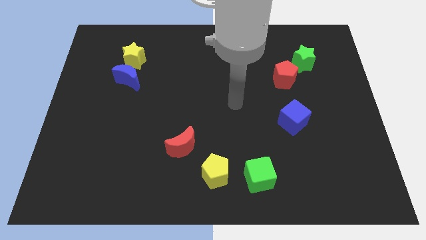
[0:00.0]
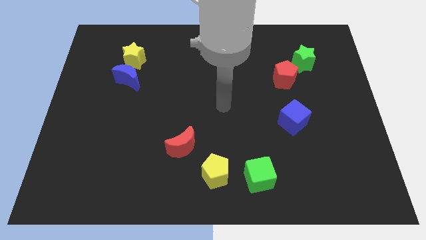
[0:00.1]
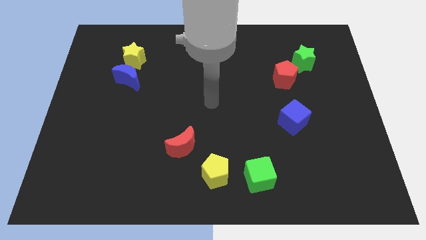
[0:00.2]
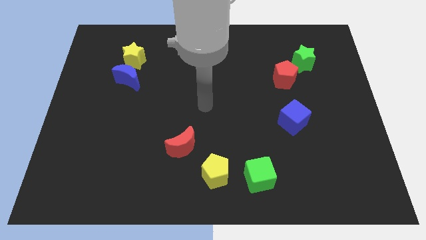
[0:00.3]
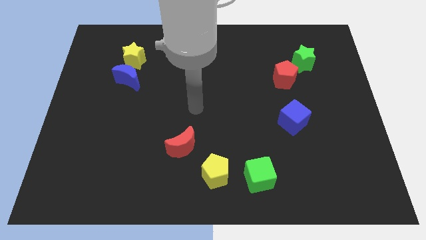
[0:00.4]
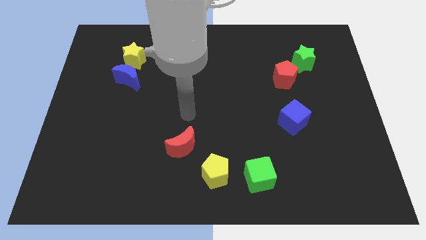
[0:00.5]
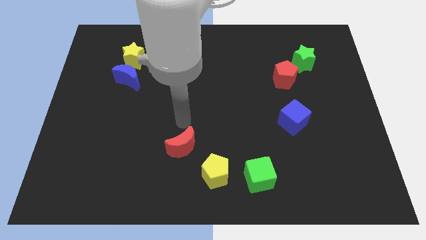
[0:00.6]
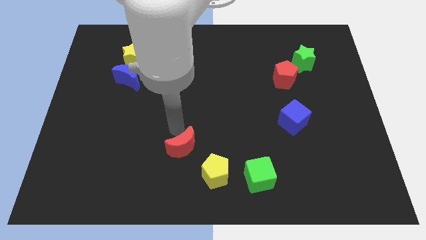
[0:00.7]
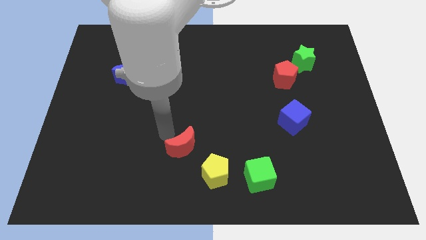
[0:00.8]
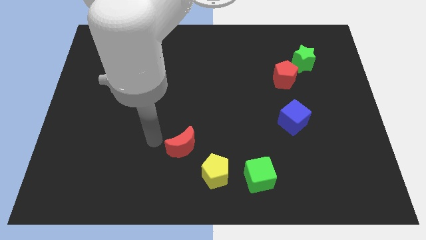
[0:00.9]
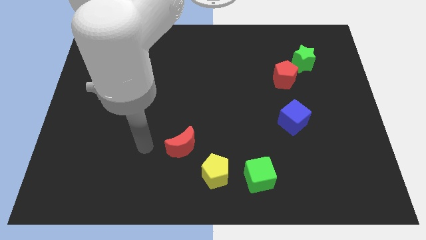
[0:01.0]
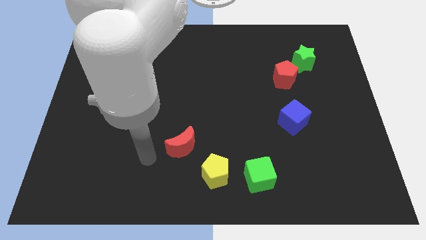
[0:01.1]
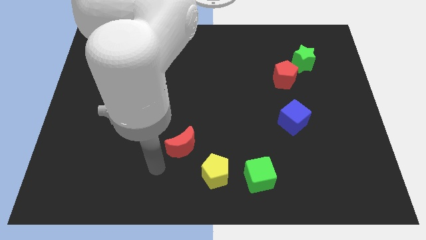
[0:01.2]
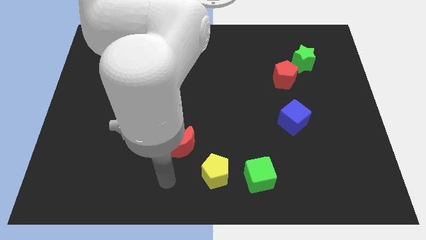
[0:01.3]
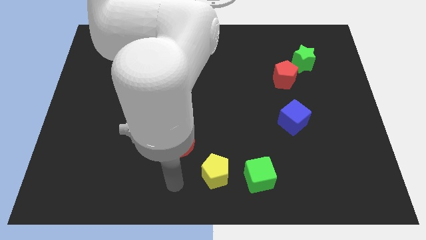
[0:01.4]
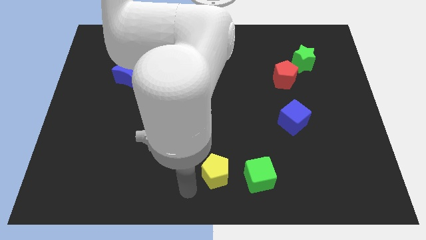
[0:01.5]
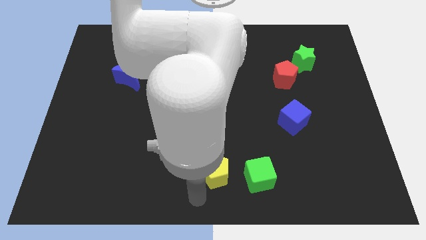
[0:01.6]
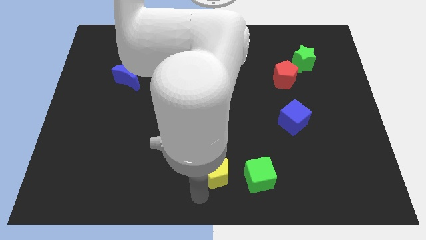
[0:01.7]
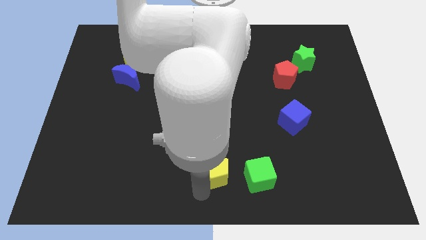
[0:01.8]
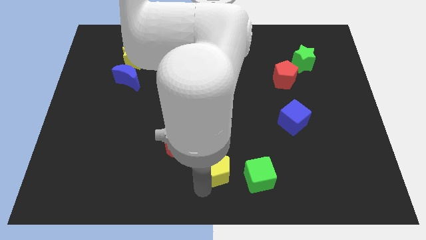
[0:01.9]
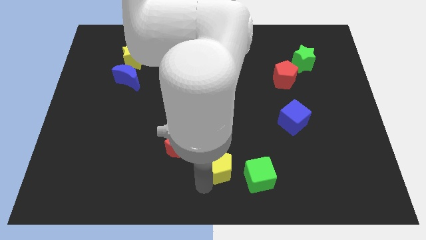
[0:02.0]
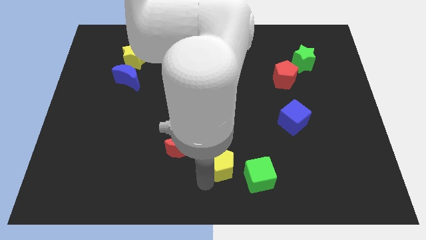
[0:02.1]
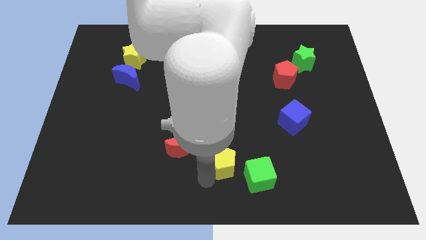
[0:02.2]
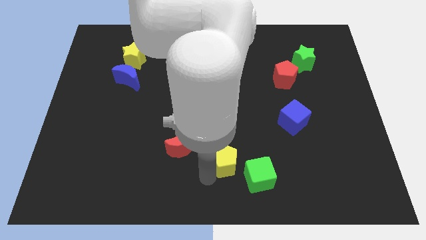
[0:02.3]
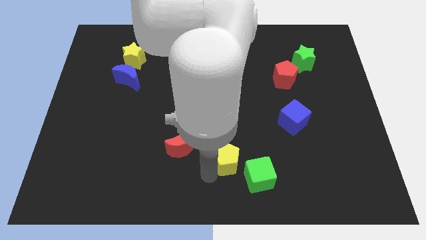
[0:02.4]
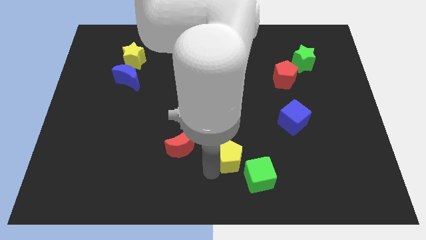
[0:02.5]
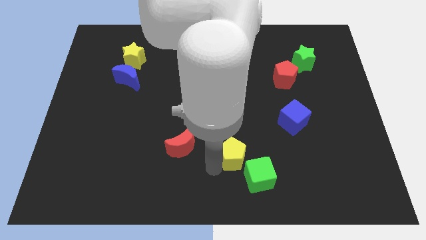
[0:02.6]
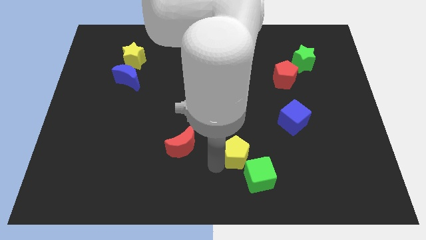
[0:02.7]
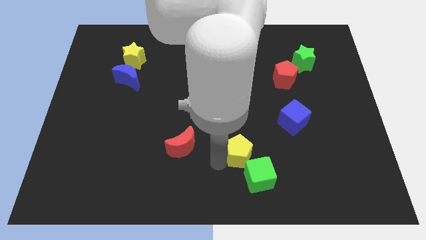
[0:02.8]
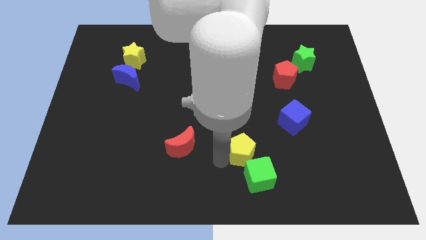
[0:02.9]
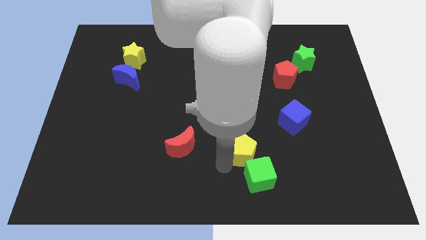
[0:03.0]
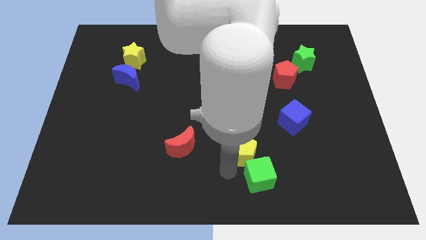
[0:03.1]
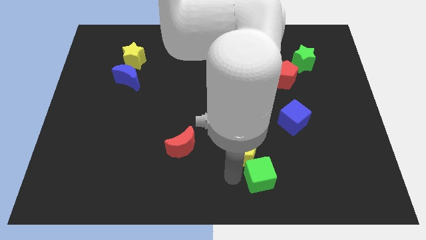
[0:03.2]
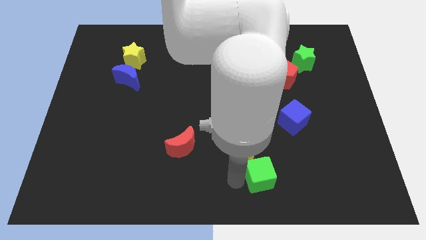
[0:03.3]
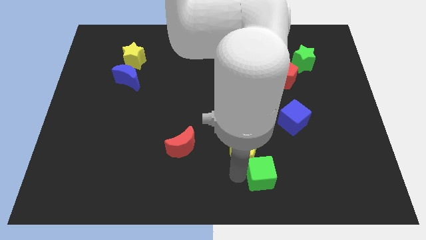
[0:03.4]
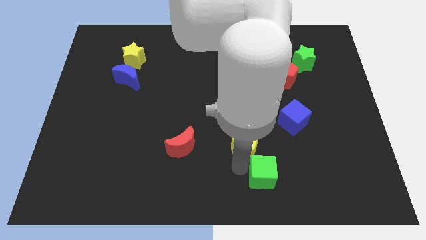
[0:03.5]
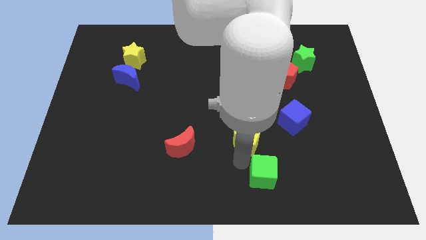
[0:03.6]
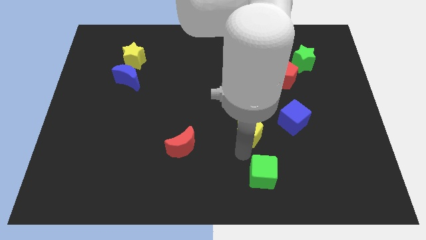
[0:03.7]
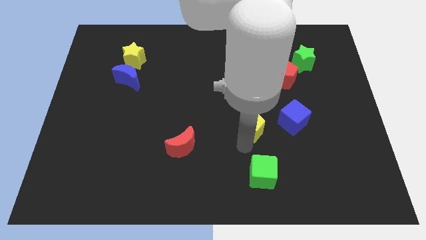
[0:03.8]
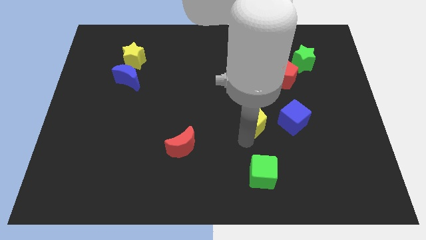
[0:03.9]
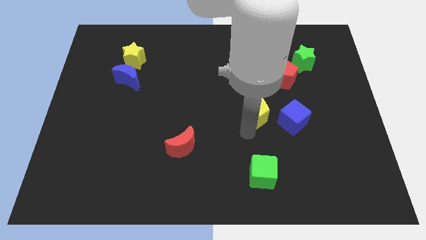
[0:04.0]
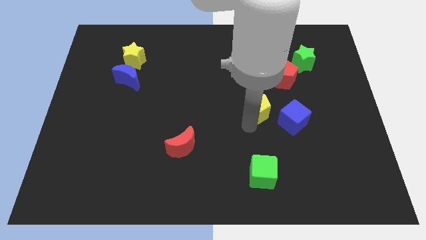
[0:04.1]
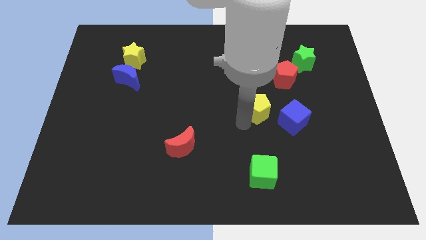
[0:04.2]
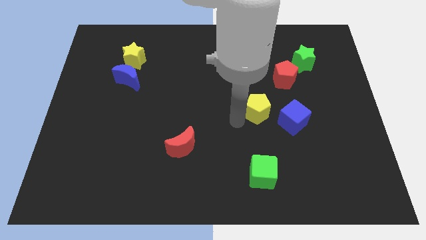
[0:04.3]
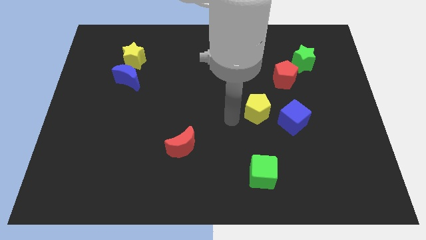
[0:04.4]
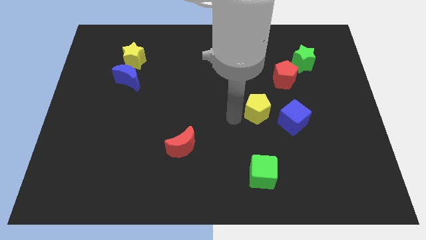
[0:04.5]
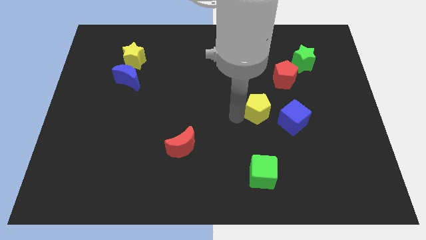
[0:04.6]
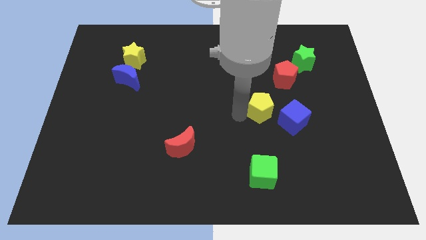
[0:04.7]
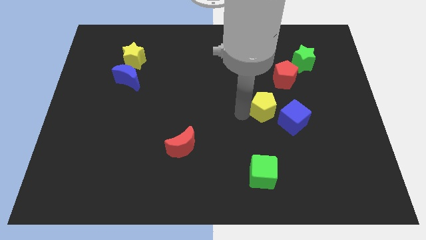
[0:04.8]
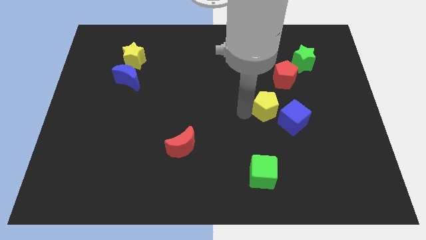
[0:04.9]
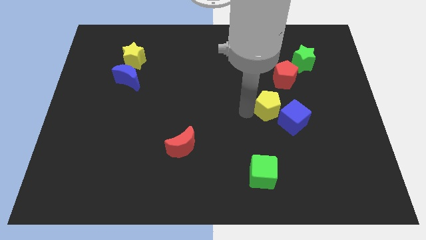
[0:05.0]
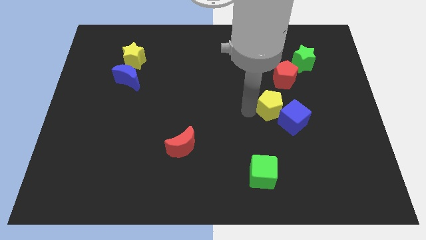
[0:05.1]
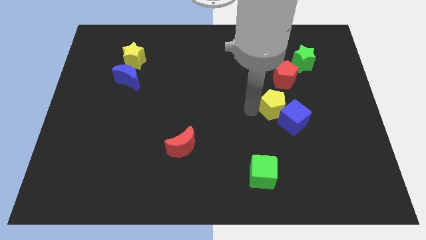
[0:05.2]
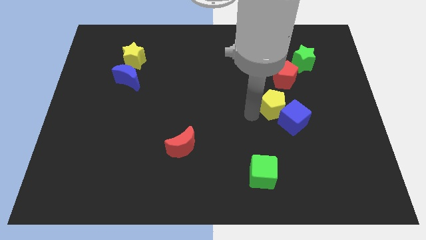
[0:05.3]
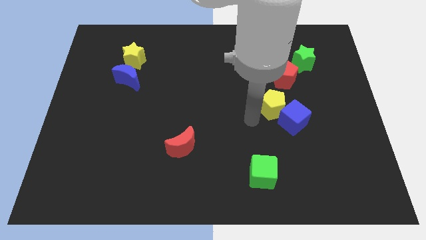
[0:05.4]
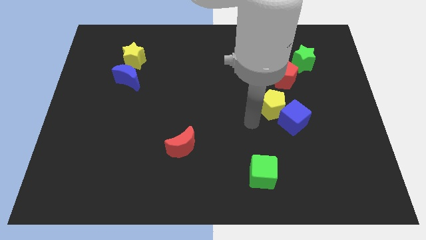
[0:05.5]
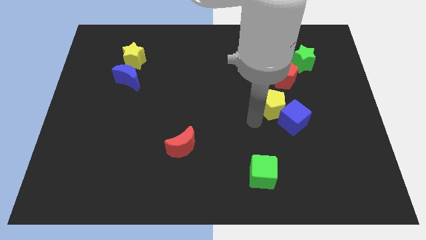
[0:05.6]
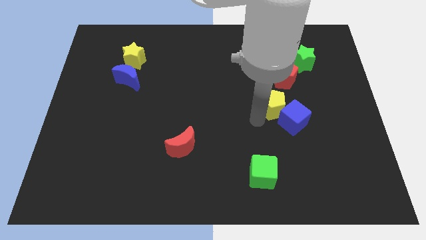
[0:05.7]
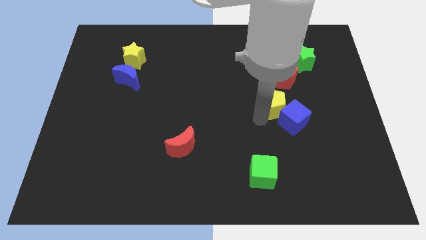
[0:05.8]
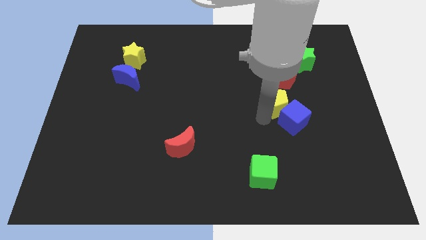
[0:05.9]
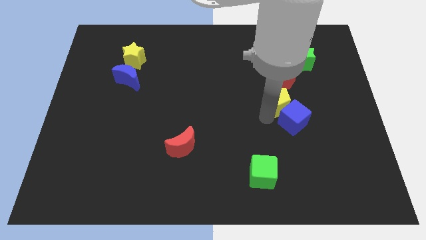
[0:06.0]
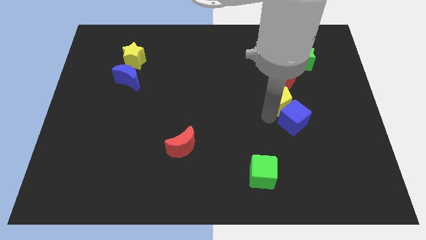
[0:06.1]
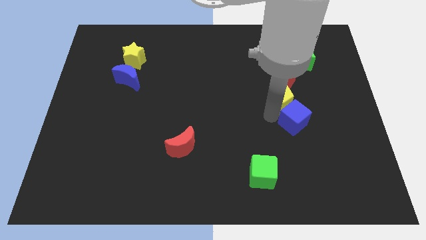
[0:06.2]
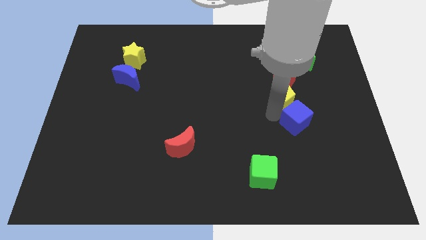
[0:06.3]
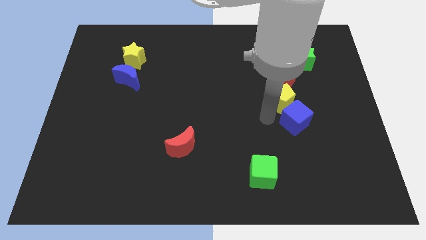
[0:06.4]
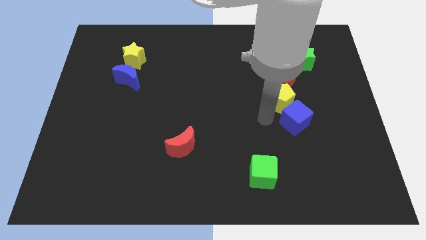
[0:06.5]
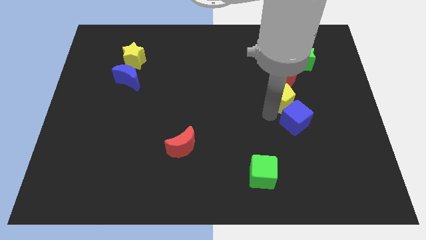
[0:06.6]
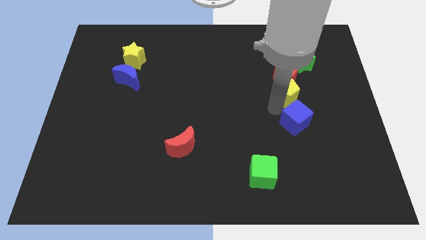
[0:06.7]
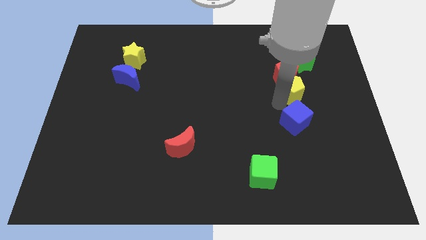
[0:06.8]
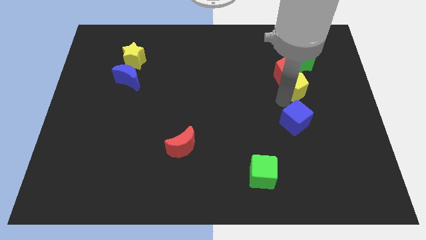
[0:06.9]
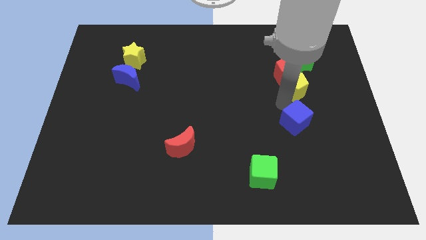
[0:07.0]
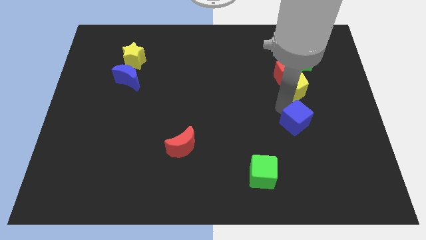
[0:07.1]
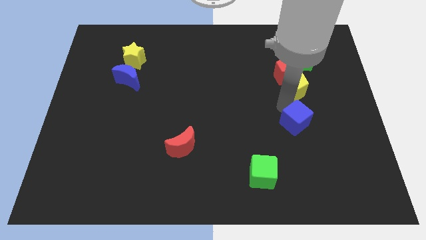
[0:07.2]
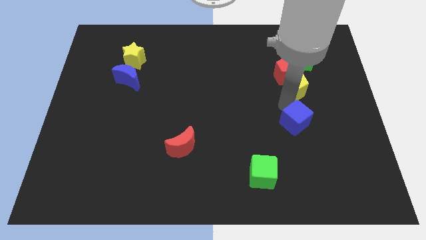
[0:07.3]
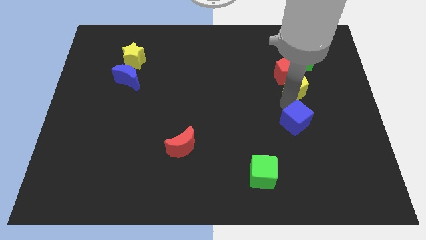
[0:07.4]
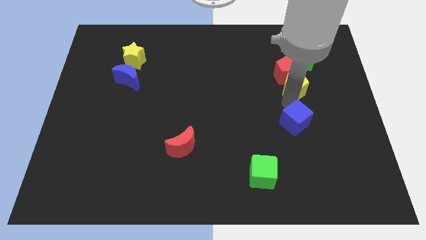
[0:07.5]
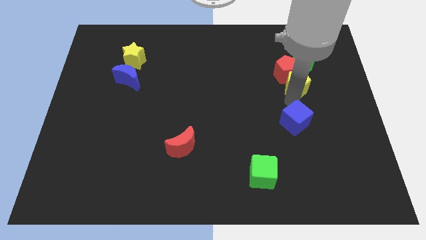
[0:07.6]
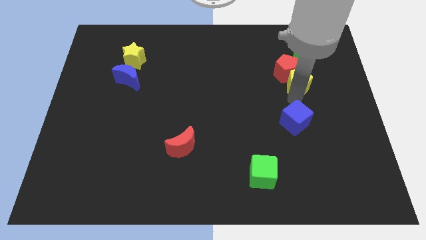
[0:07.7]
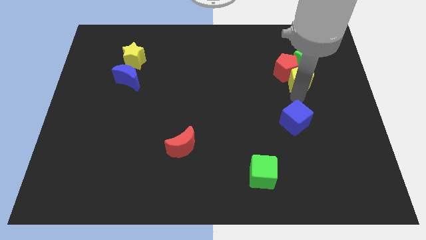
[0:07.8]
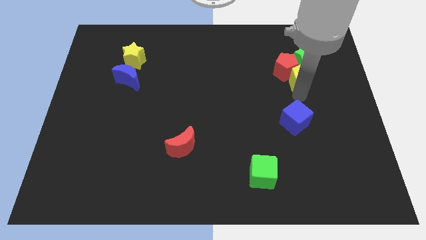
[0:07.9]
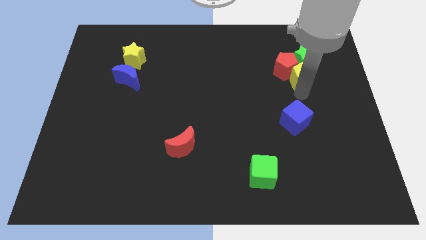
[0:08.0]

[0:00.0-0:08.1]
move the yellow pentagon next to the green star
